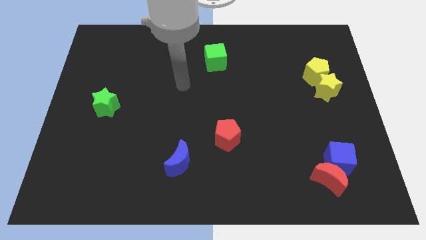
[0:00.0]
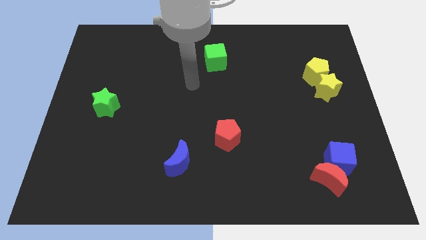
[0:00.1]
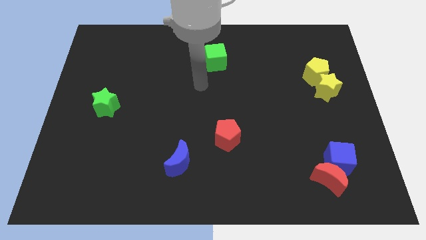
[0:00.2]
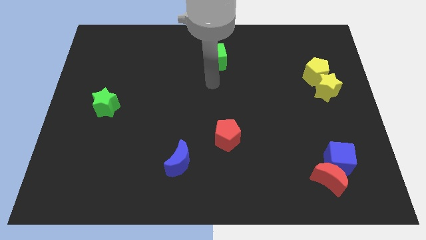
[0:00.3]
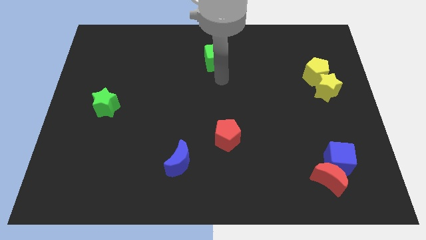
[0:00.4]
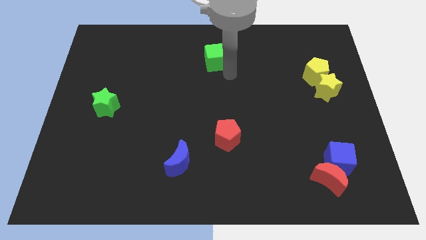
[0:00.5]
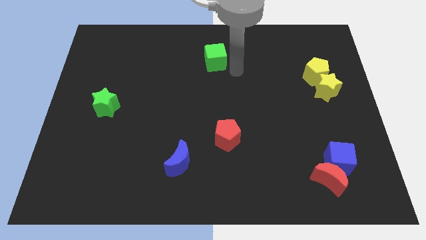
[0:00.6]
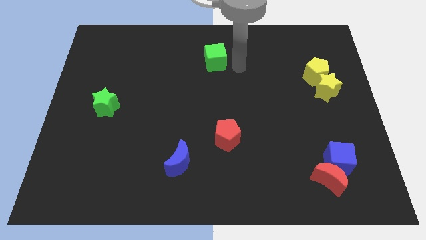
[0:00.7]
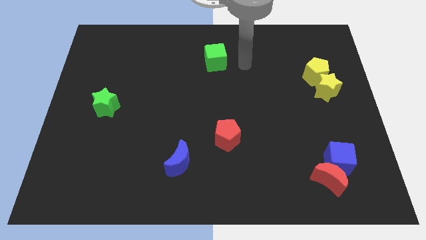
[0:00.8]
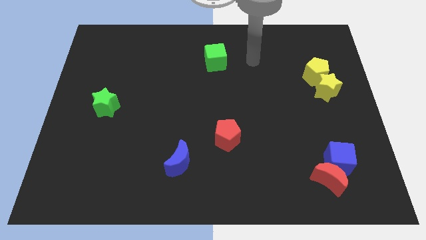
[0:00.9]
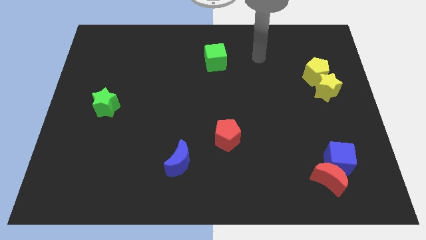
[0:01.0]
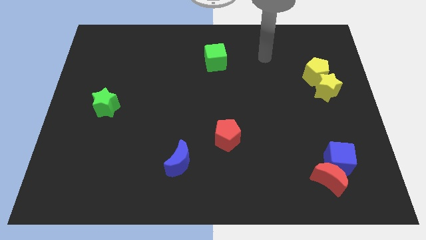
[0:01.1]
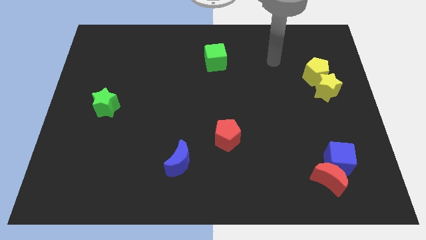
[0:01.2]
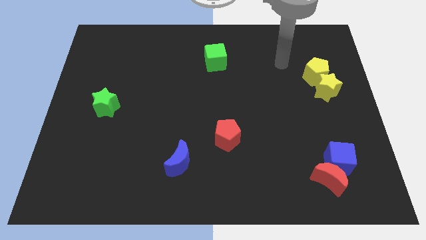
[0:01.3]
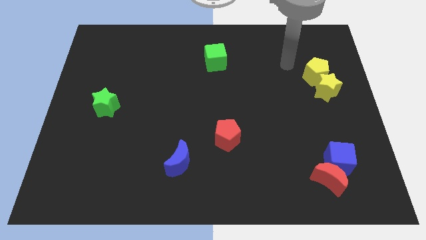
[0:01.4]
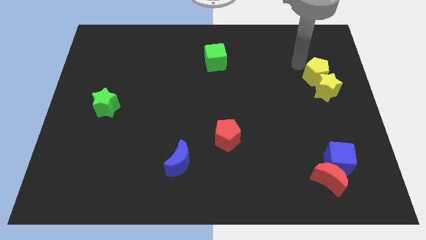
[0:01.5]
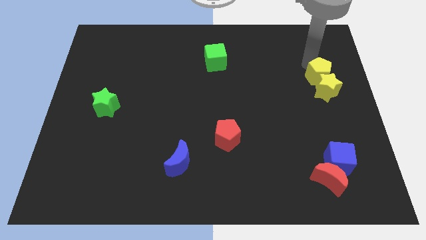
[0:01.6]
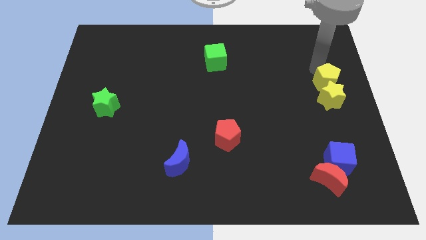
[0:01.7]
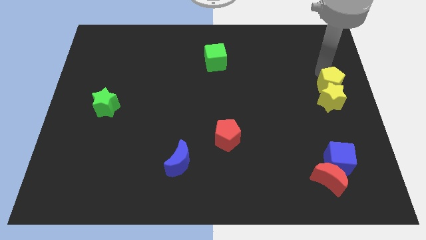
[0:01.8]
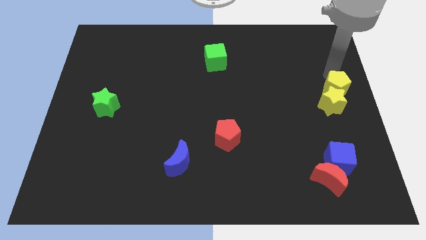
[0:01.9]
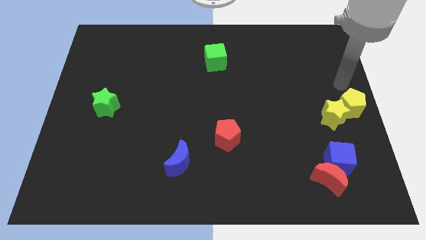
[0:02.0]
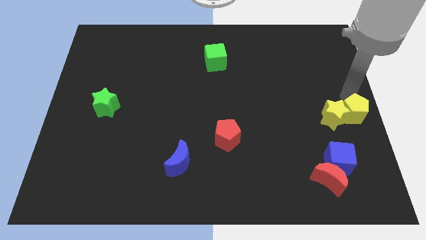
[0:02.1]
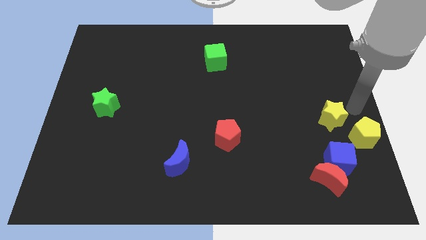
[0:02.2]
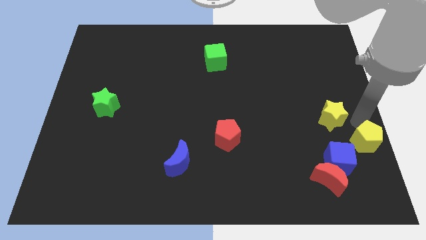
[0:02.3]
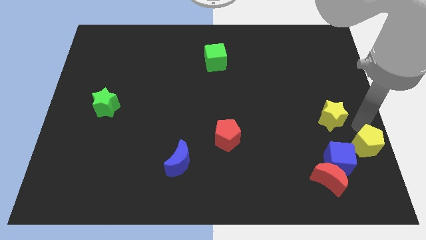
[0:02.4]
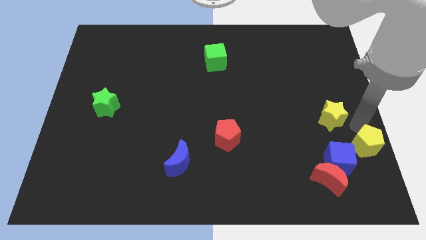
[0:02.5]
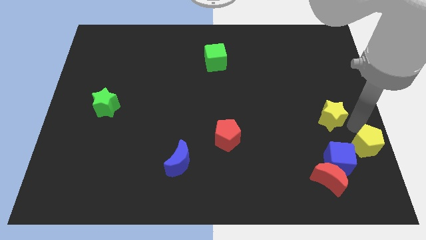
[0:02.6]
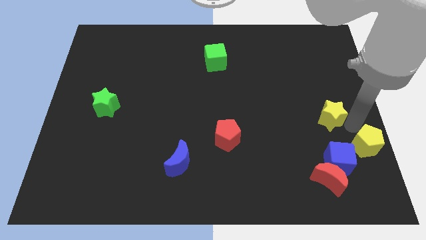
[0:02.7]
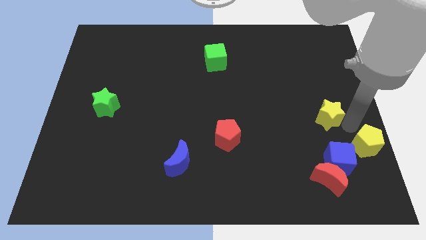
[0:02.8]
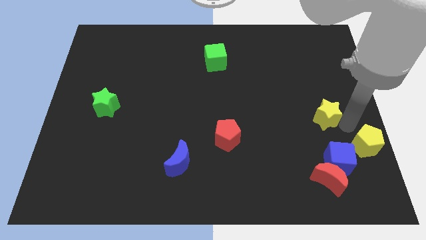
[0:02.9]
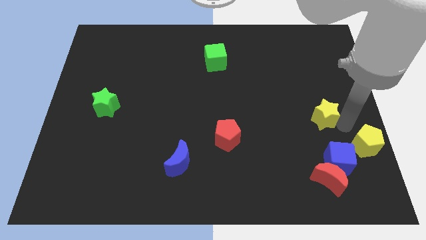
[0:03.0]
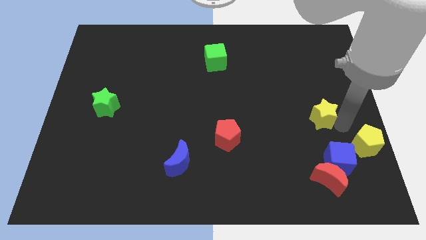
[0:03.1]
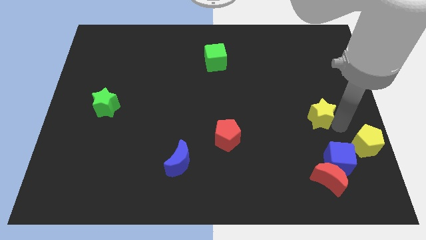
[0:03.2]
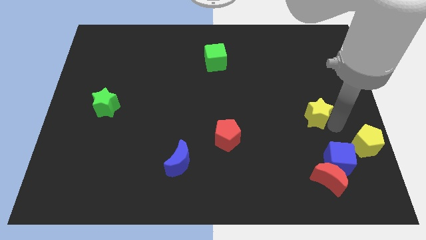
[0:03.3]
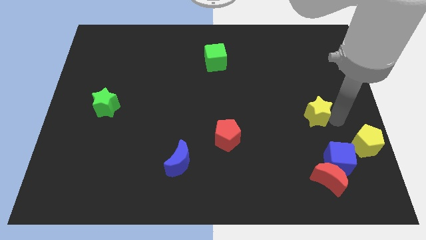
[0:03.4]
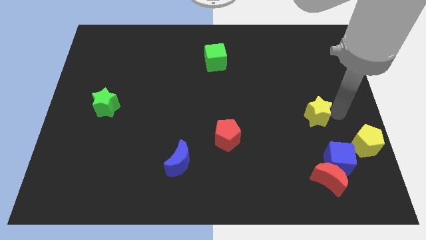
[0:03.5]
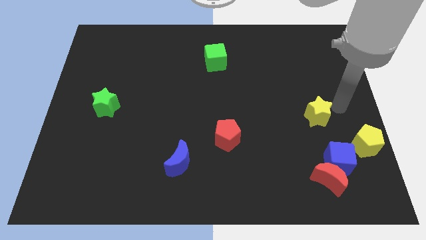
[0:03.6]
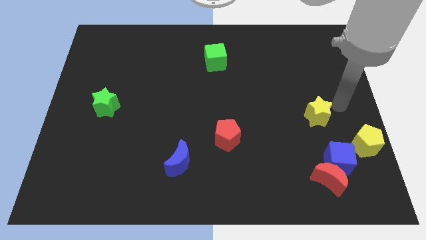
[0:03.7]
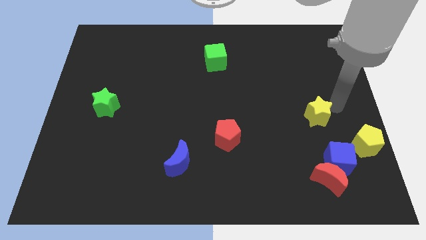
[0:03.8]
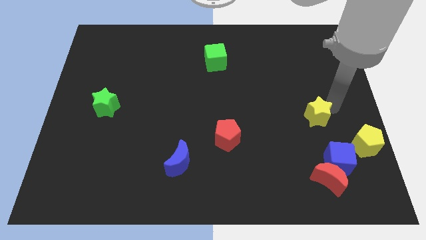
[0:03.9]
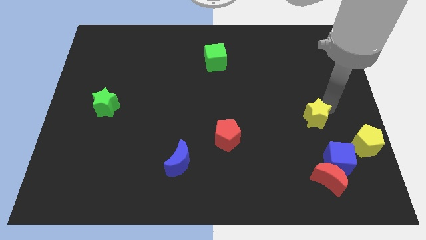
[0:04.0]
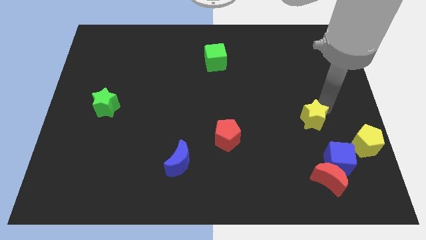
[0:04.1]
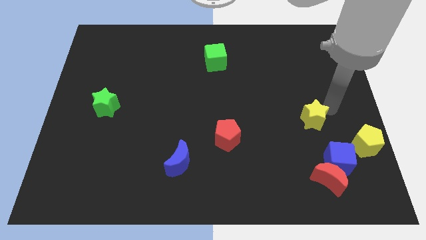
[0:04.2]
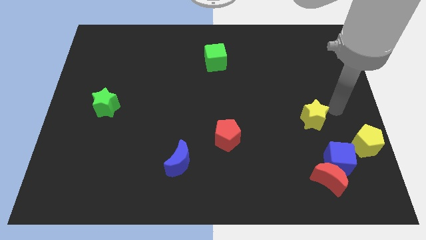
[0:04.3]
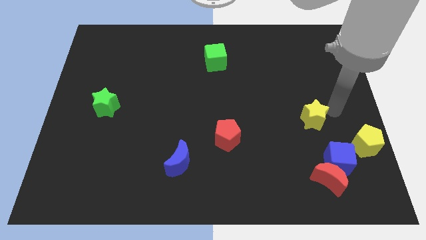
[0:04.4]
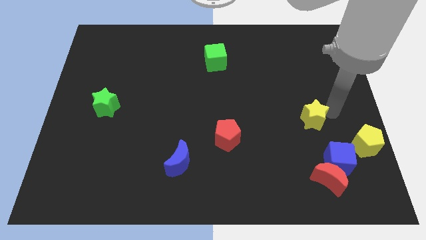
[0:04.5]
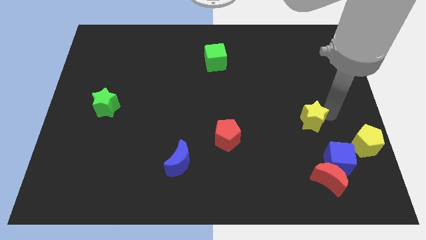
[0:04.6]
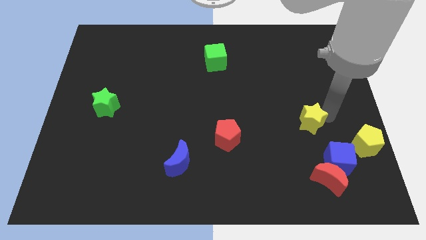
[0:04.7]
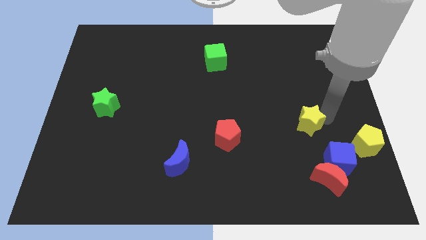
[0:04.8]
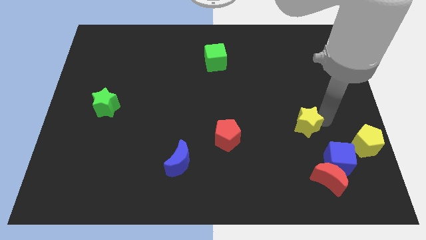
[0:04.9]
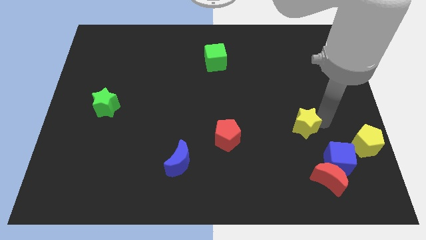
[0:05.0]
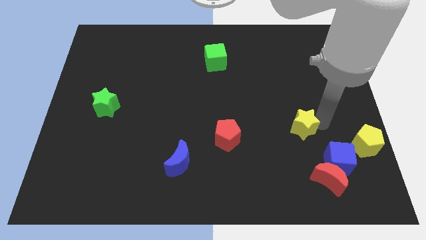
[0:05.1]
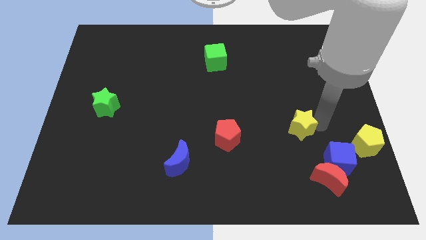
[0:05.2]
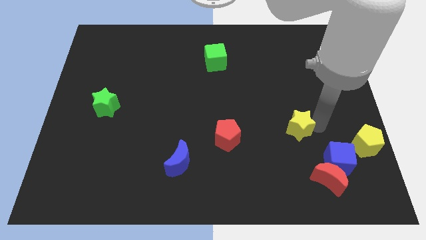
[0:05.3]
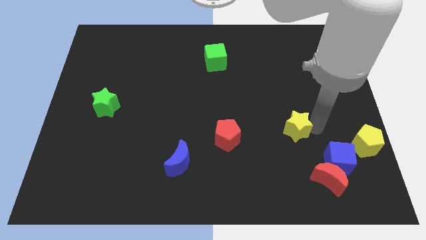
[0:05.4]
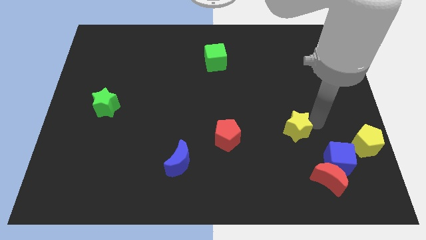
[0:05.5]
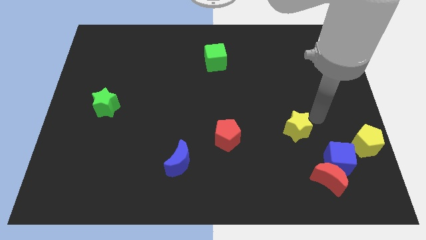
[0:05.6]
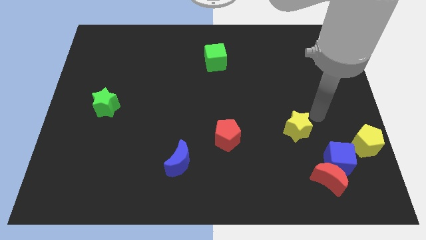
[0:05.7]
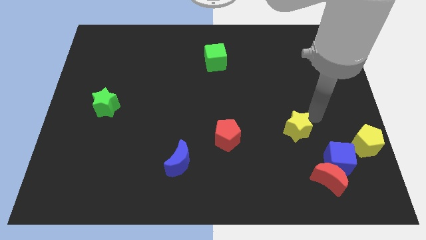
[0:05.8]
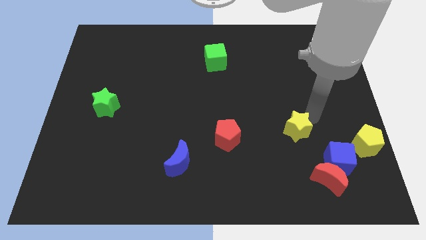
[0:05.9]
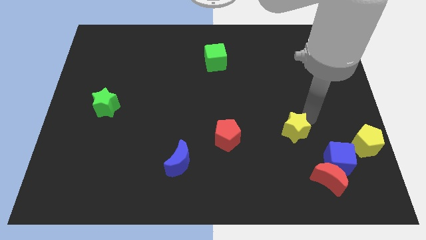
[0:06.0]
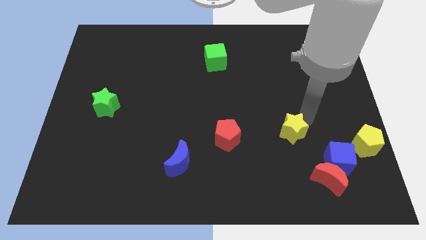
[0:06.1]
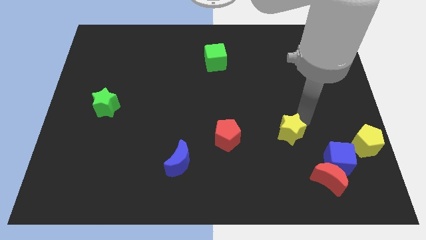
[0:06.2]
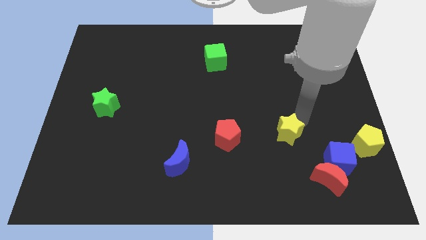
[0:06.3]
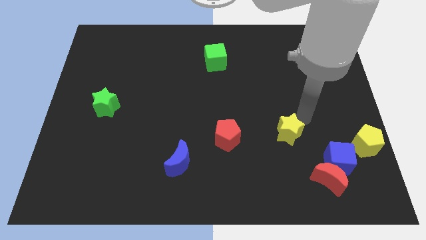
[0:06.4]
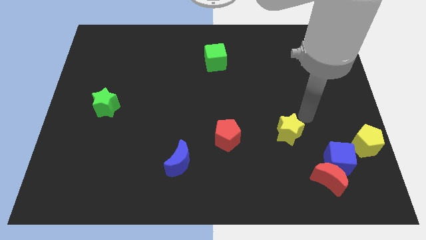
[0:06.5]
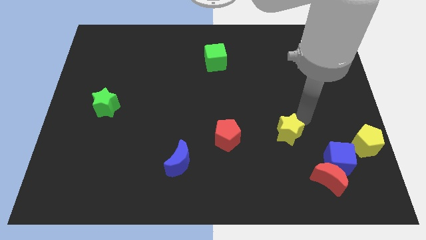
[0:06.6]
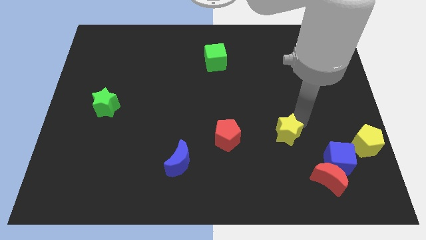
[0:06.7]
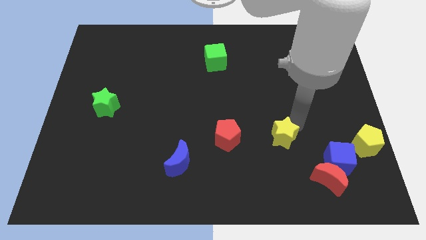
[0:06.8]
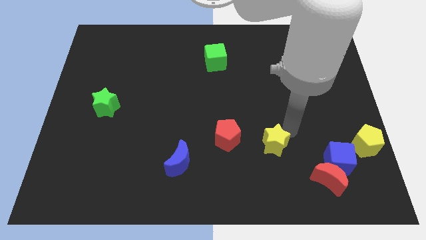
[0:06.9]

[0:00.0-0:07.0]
push the yellow star diagonally downwards and left

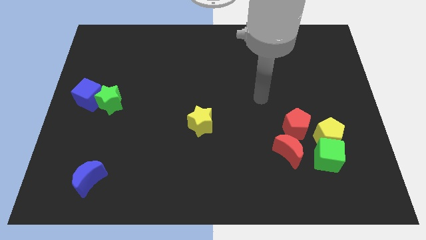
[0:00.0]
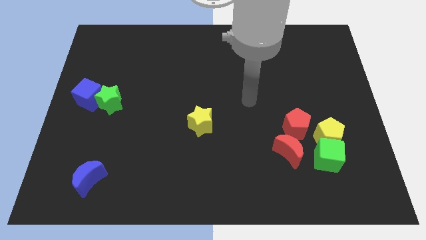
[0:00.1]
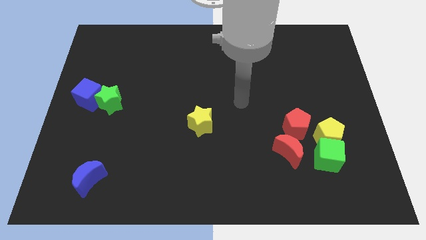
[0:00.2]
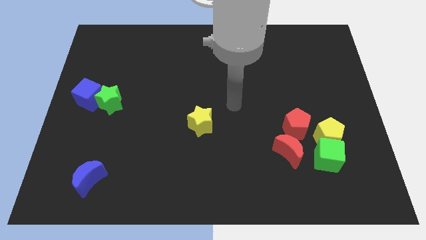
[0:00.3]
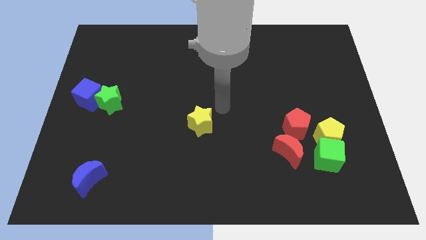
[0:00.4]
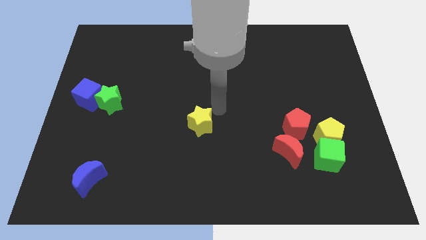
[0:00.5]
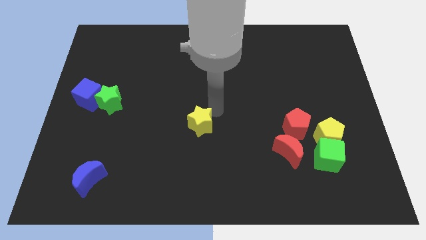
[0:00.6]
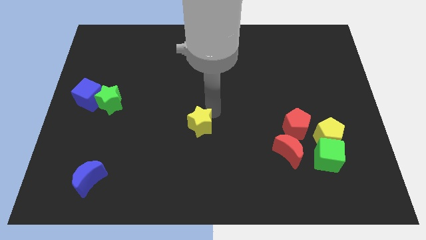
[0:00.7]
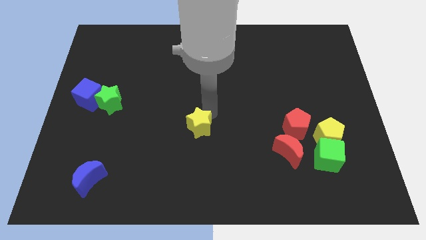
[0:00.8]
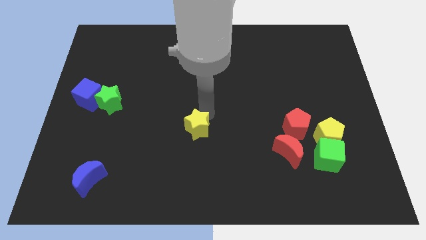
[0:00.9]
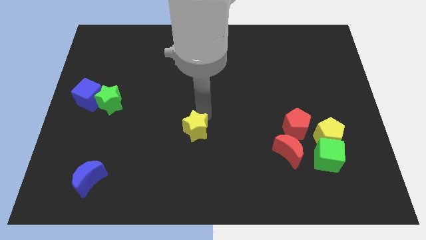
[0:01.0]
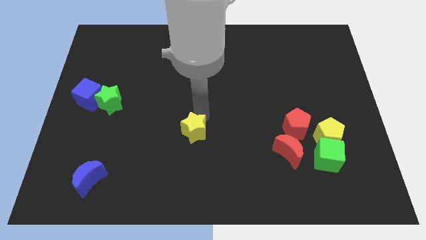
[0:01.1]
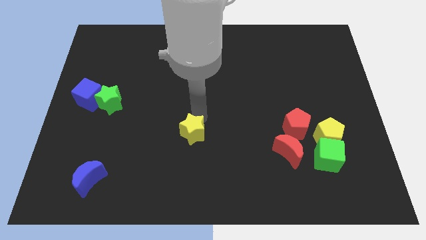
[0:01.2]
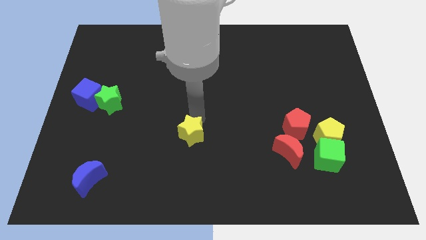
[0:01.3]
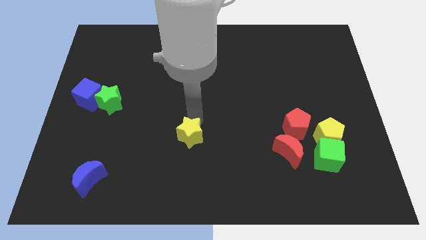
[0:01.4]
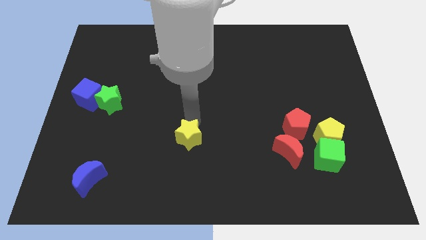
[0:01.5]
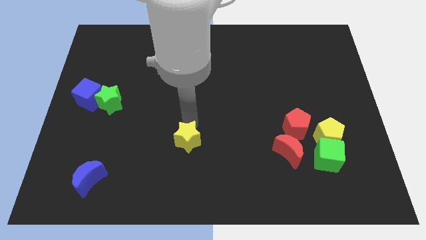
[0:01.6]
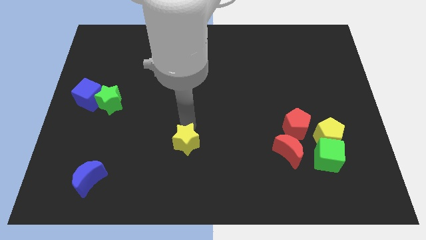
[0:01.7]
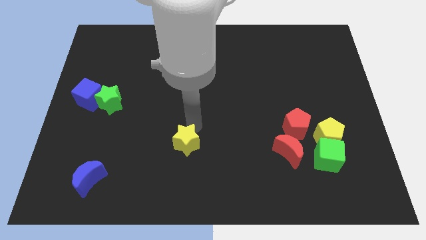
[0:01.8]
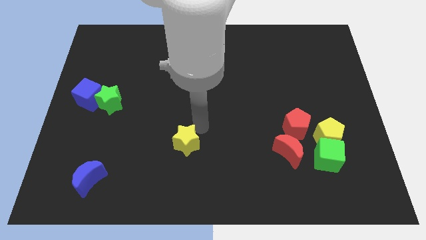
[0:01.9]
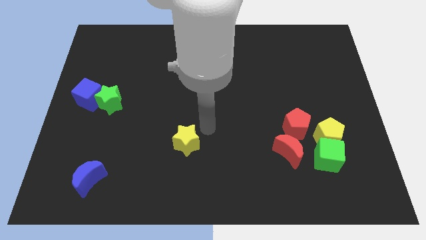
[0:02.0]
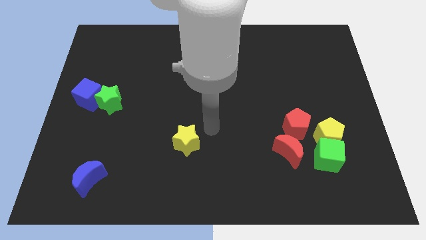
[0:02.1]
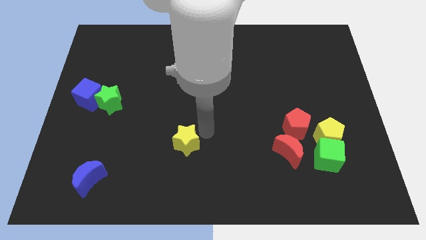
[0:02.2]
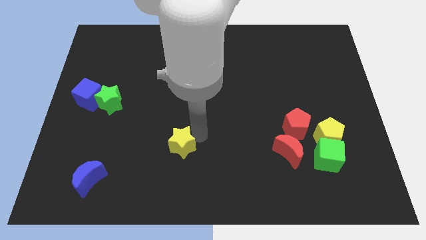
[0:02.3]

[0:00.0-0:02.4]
move the yellow star downwards and to the left slightly
